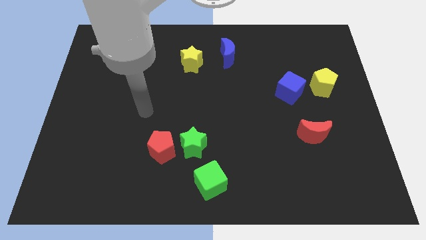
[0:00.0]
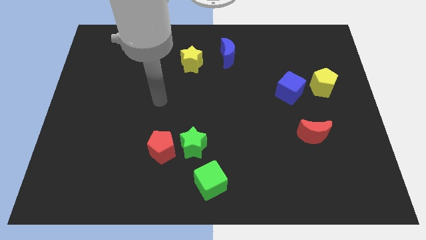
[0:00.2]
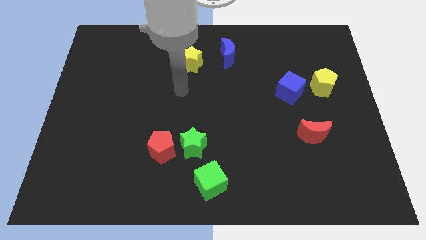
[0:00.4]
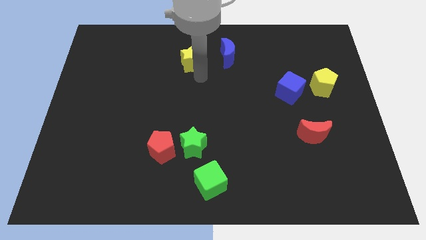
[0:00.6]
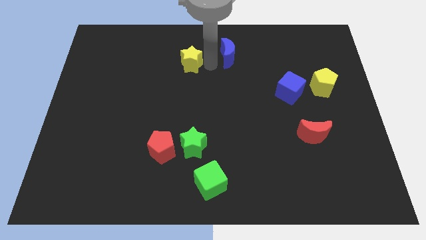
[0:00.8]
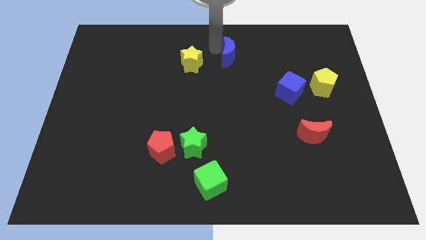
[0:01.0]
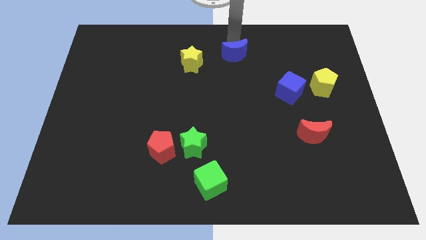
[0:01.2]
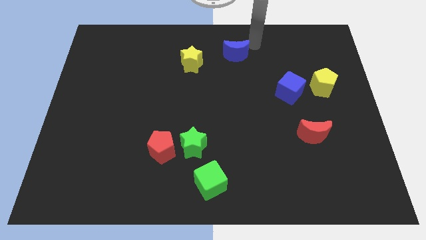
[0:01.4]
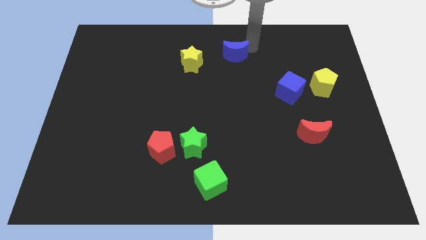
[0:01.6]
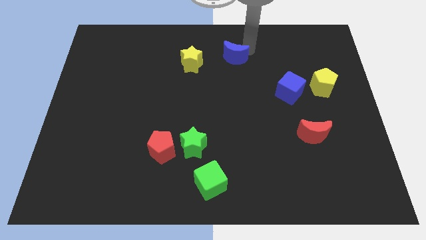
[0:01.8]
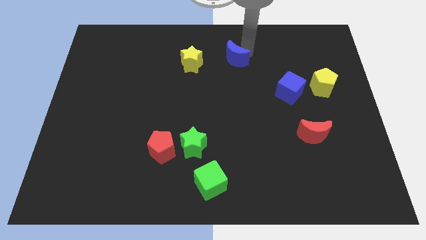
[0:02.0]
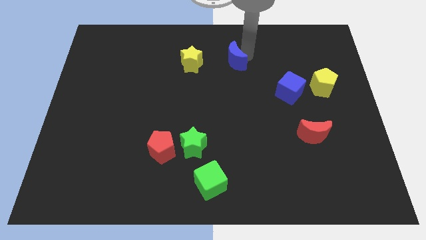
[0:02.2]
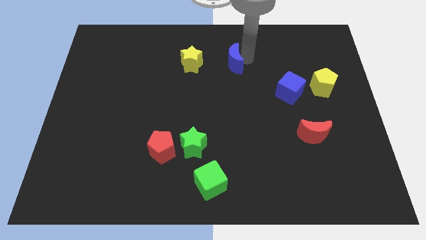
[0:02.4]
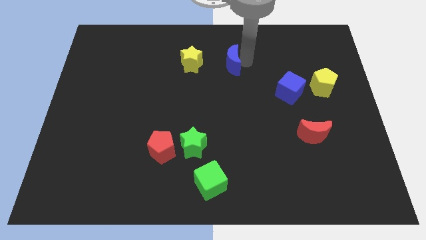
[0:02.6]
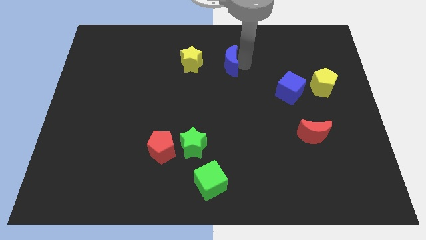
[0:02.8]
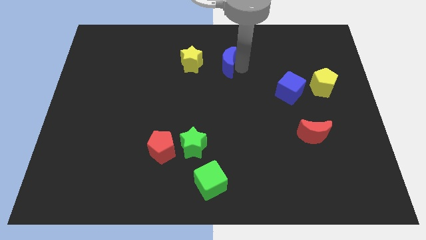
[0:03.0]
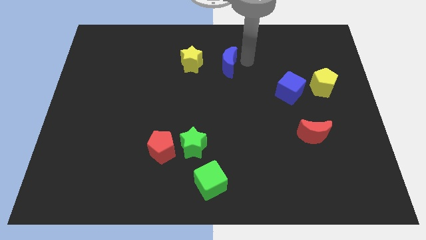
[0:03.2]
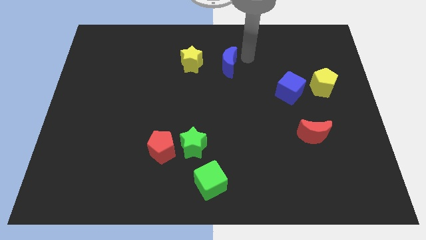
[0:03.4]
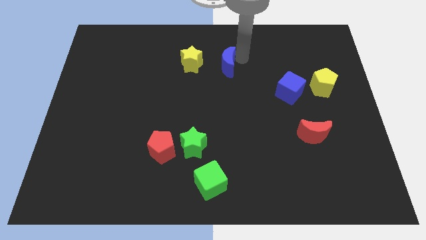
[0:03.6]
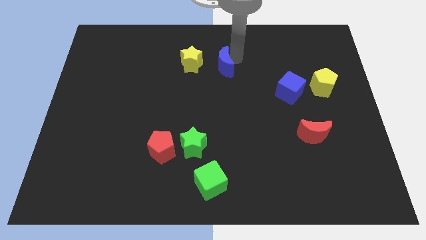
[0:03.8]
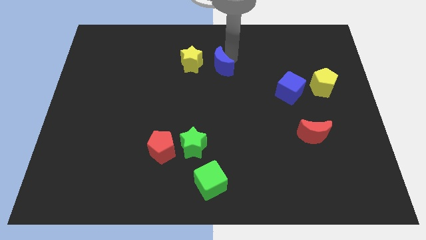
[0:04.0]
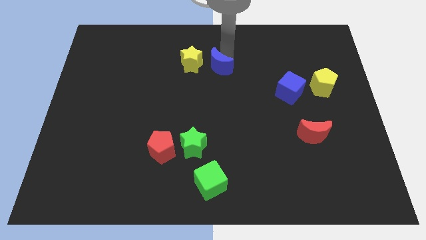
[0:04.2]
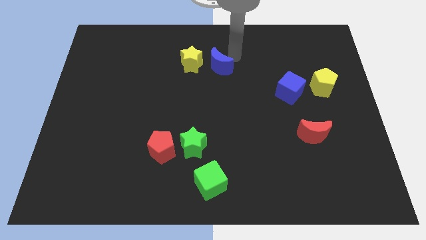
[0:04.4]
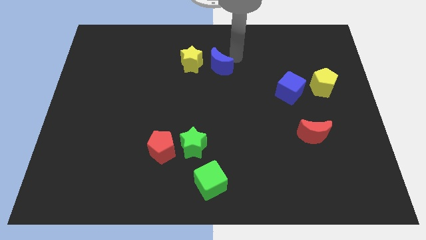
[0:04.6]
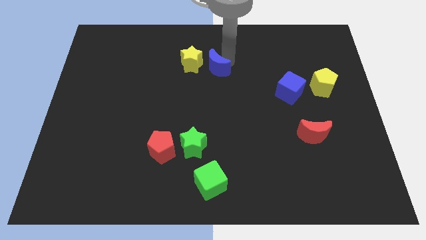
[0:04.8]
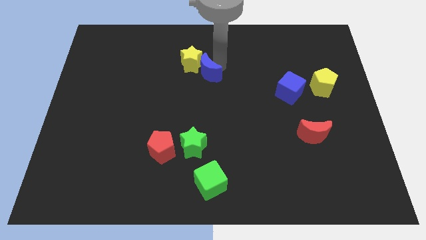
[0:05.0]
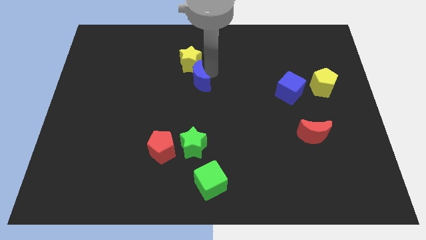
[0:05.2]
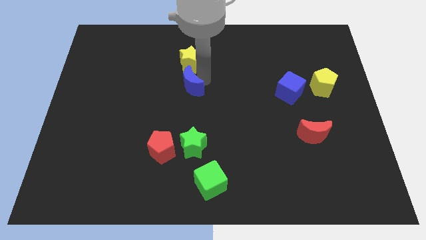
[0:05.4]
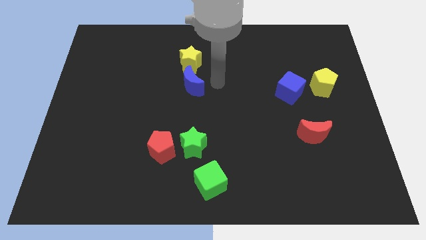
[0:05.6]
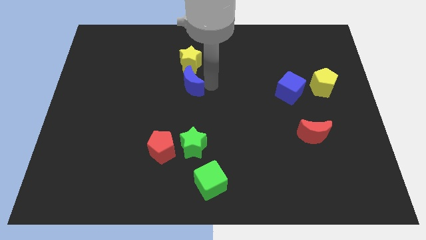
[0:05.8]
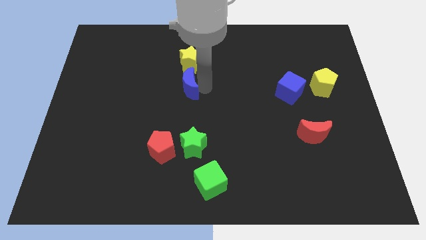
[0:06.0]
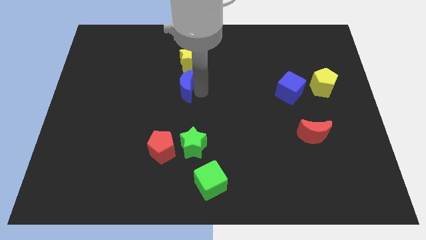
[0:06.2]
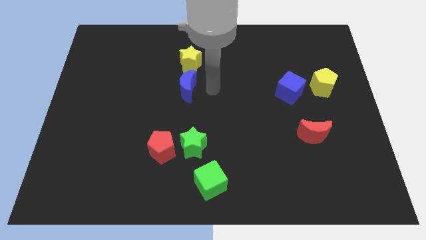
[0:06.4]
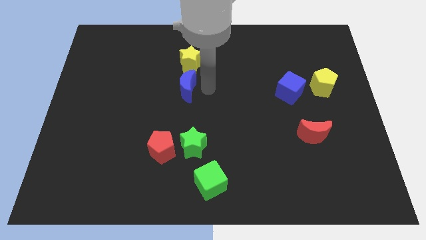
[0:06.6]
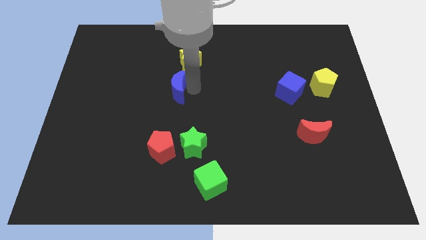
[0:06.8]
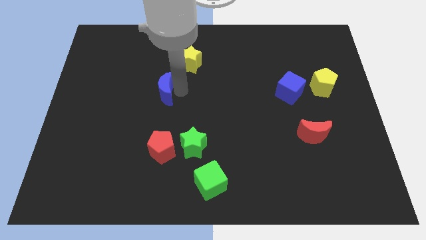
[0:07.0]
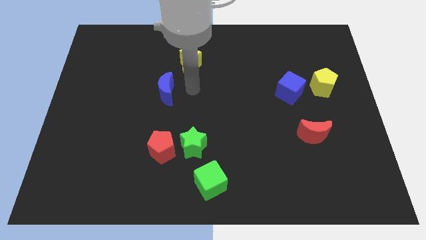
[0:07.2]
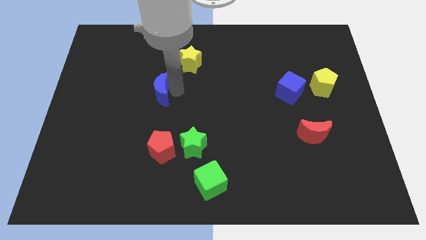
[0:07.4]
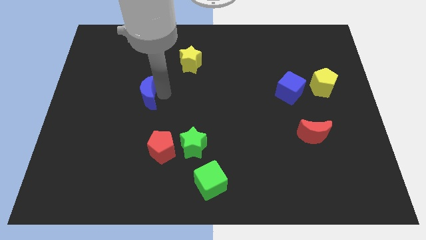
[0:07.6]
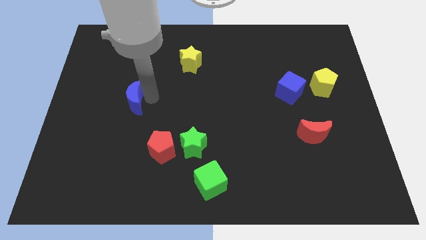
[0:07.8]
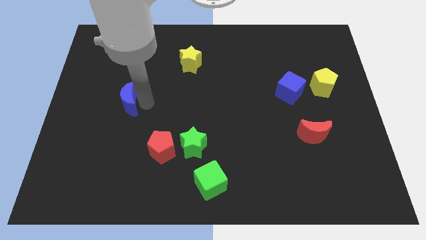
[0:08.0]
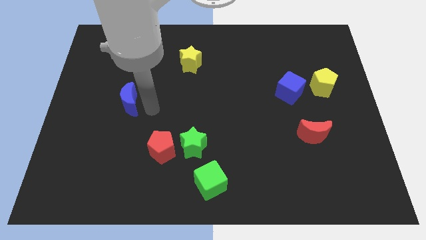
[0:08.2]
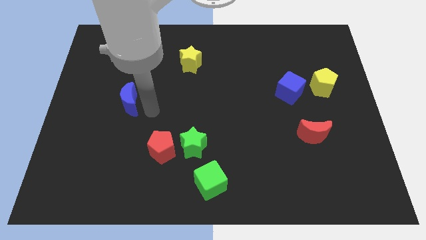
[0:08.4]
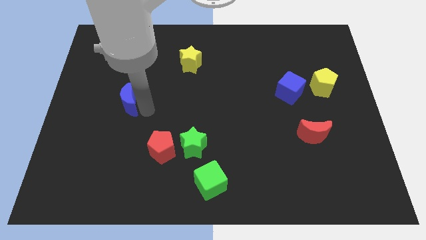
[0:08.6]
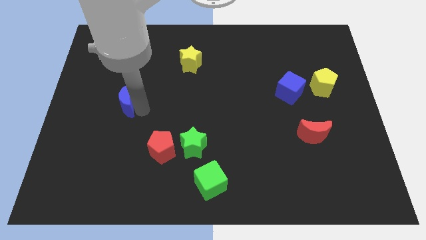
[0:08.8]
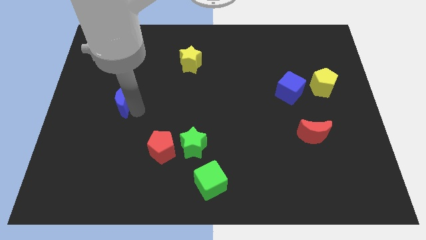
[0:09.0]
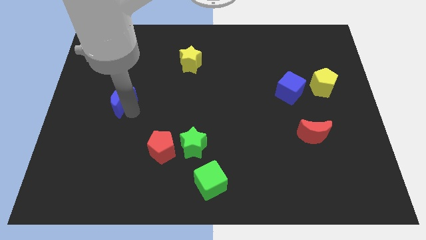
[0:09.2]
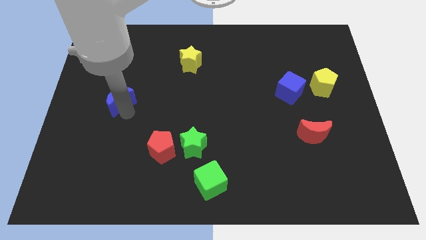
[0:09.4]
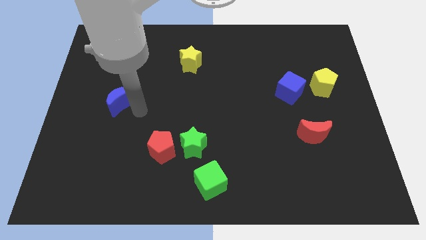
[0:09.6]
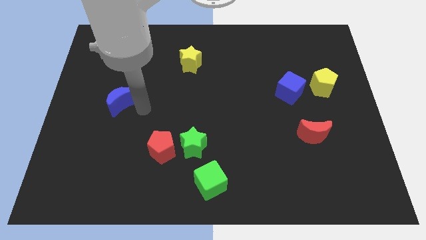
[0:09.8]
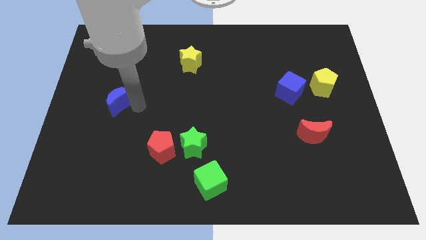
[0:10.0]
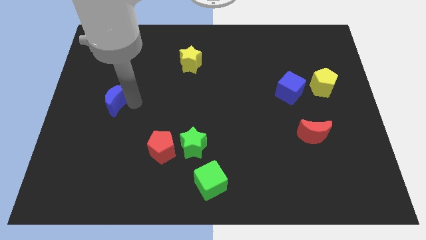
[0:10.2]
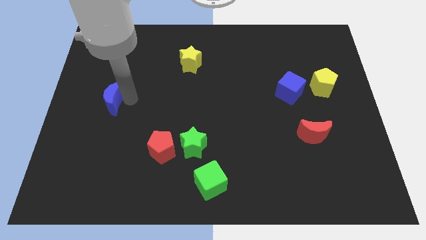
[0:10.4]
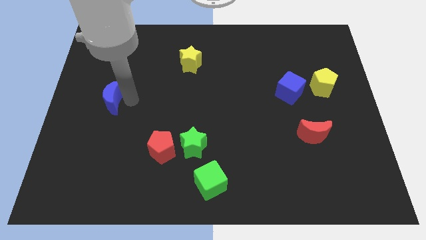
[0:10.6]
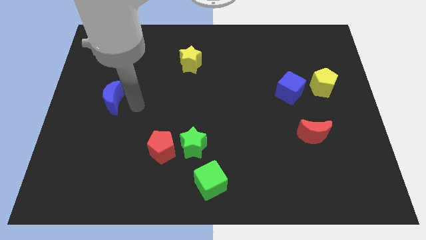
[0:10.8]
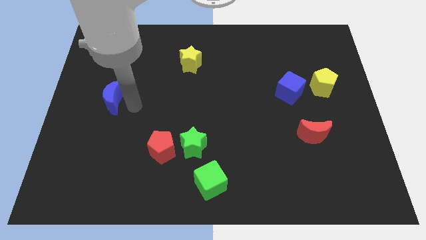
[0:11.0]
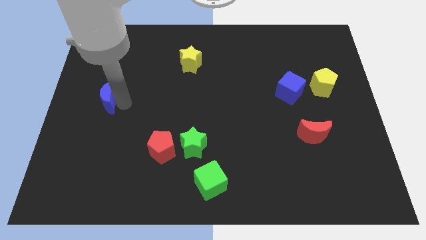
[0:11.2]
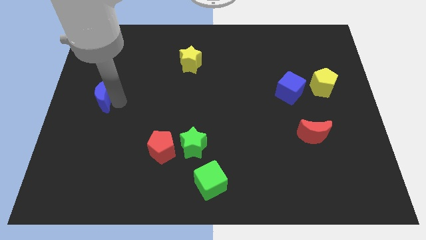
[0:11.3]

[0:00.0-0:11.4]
slide the blue moon to the center left

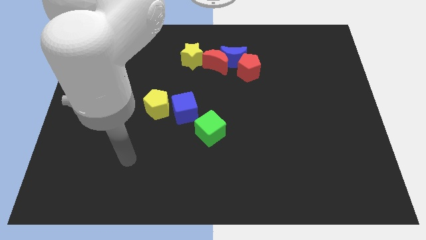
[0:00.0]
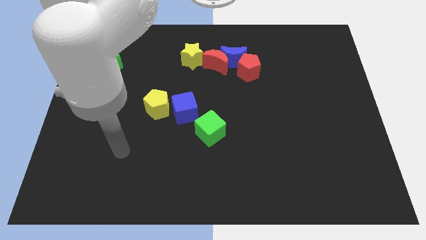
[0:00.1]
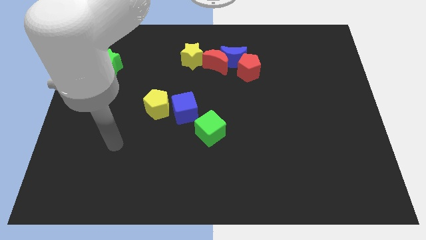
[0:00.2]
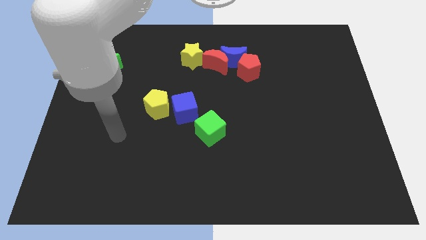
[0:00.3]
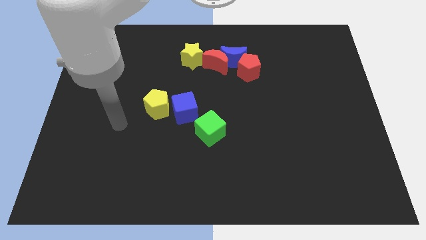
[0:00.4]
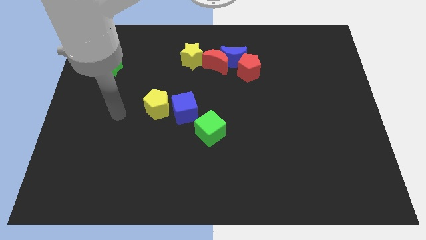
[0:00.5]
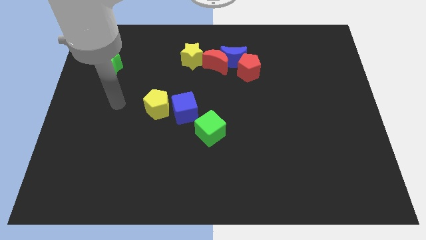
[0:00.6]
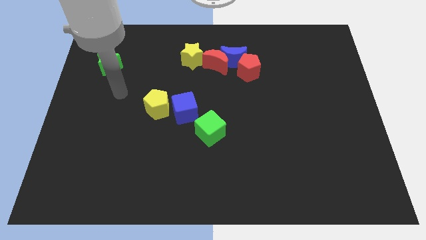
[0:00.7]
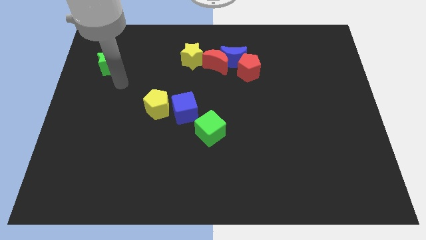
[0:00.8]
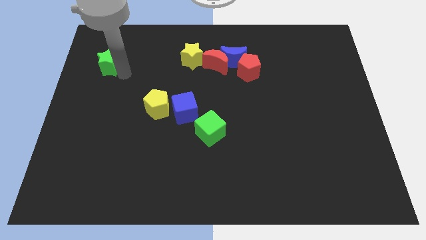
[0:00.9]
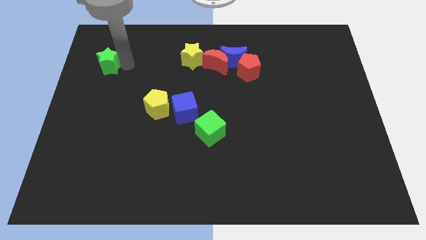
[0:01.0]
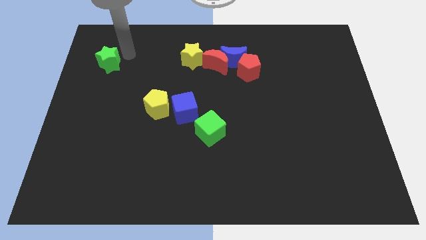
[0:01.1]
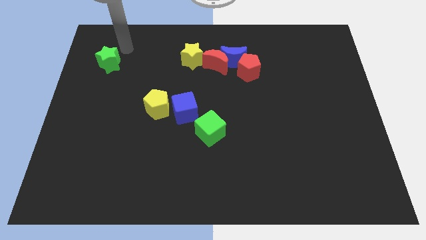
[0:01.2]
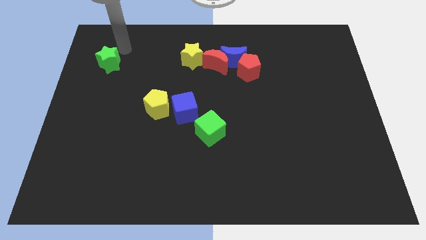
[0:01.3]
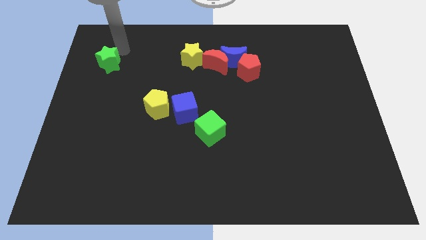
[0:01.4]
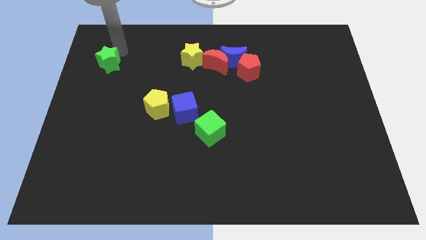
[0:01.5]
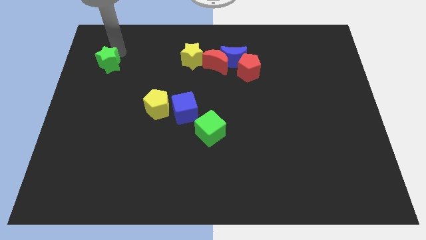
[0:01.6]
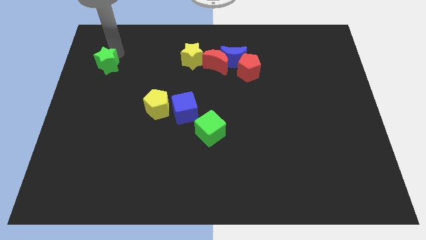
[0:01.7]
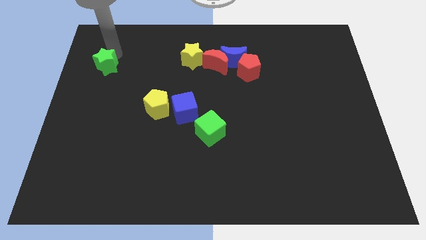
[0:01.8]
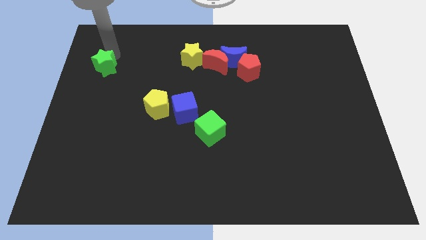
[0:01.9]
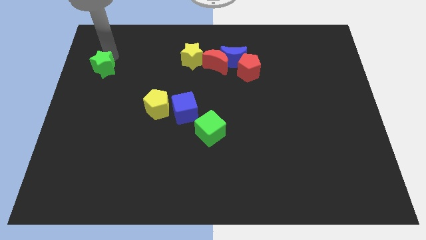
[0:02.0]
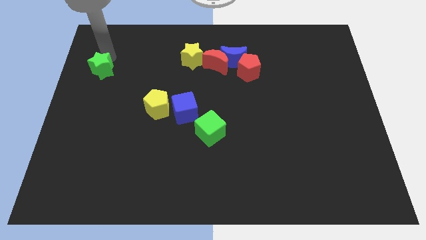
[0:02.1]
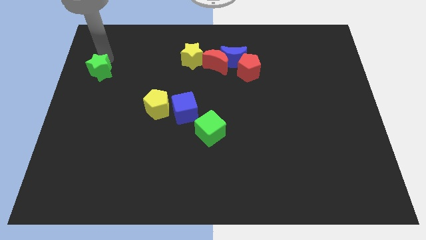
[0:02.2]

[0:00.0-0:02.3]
slide the green star to the left side of the board
